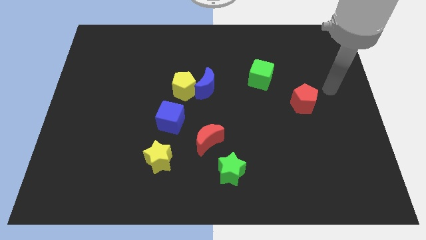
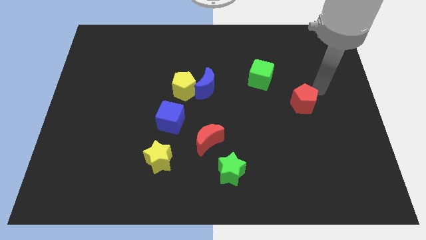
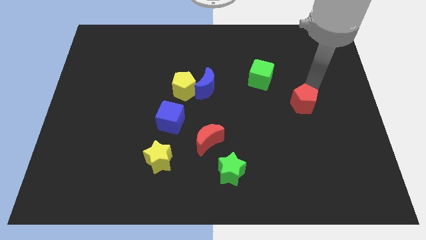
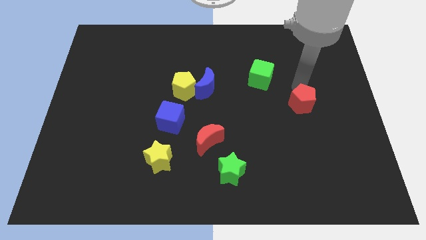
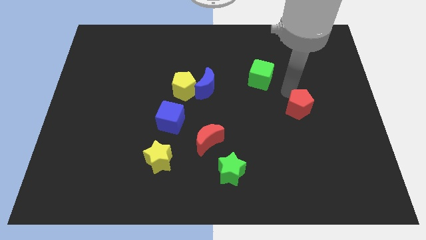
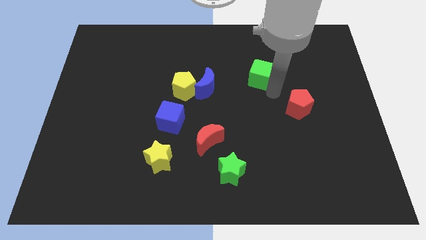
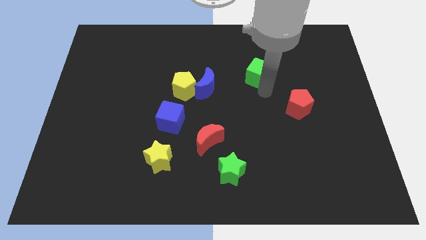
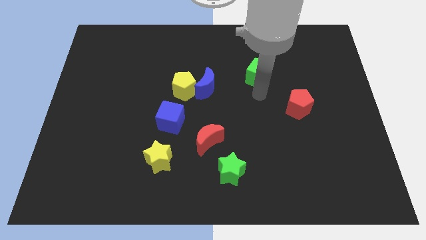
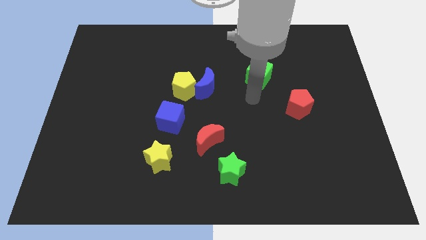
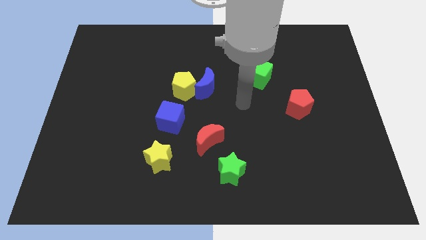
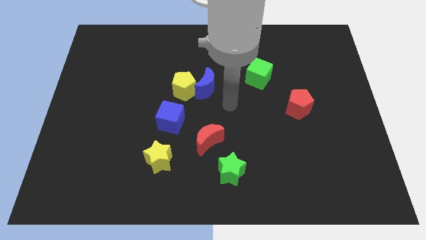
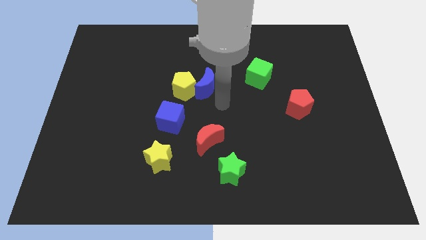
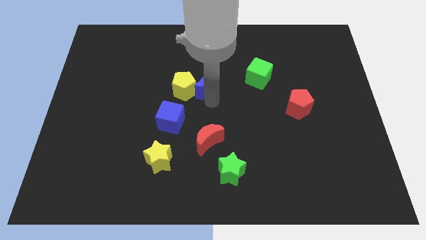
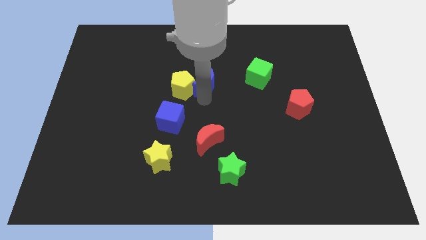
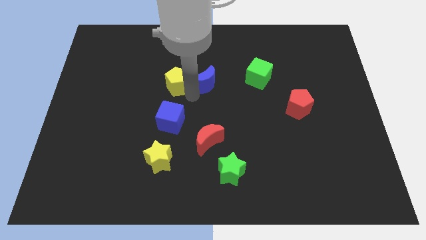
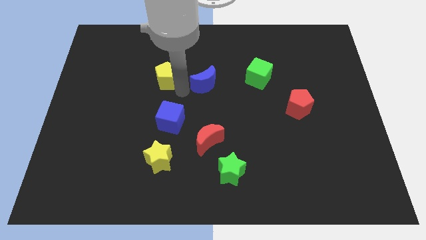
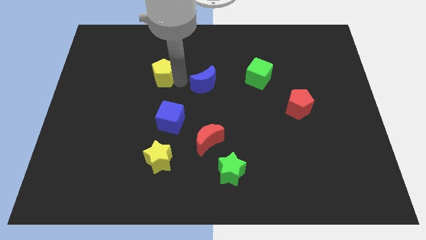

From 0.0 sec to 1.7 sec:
separate the blue moon from the yellow pentagon

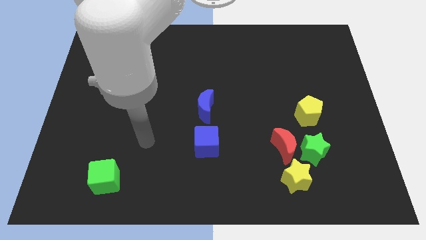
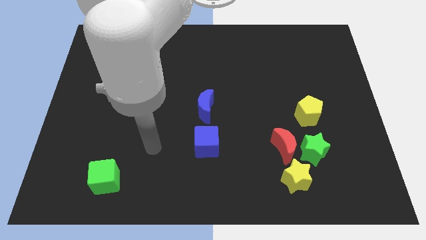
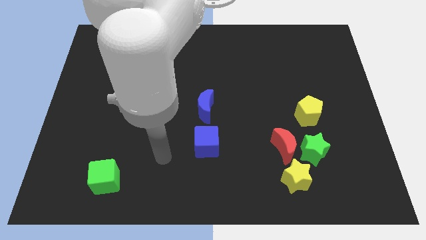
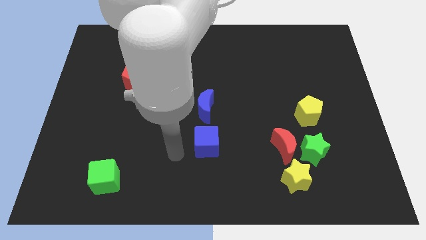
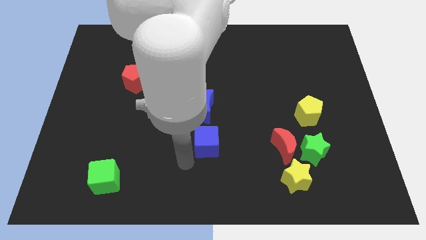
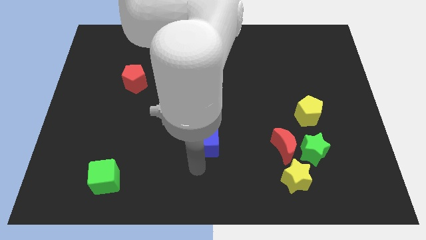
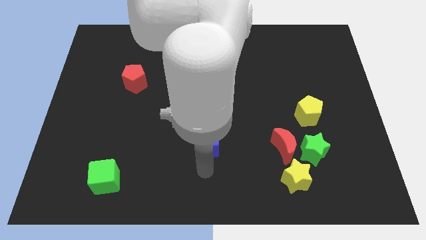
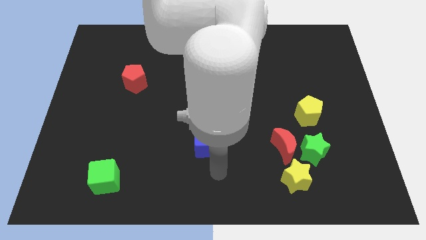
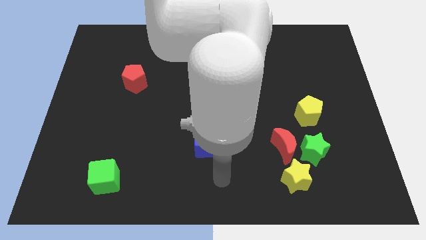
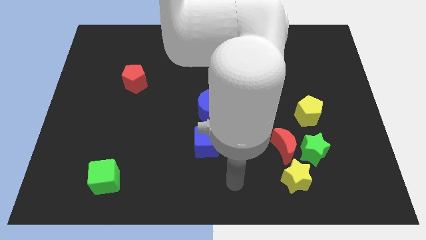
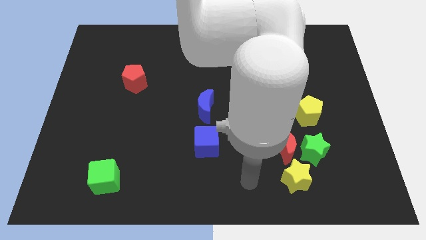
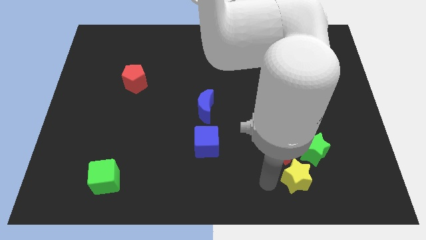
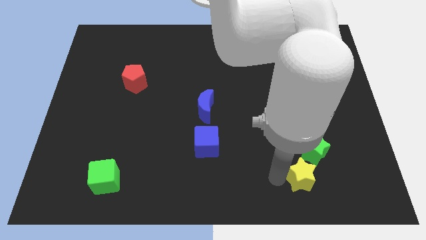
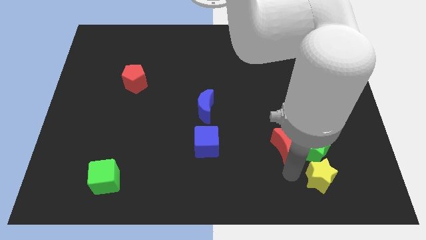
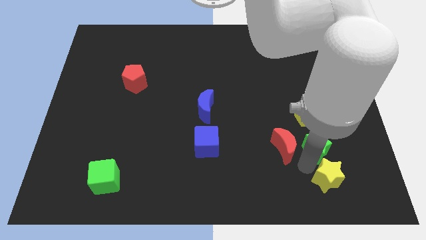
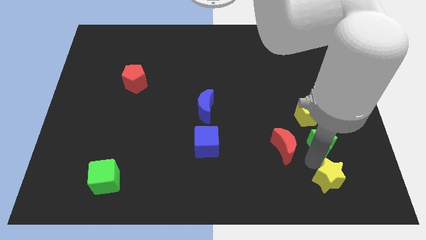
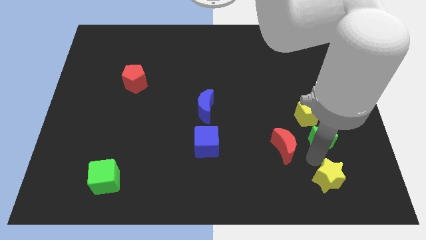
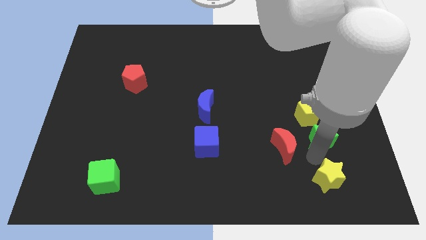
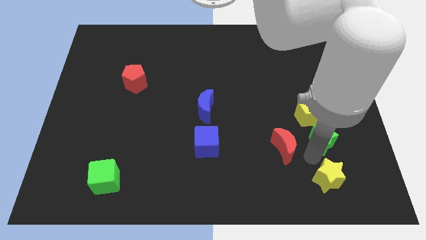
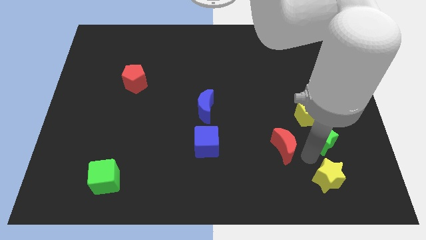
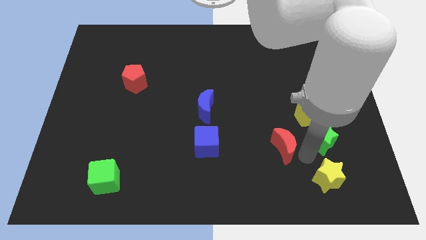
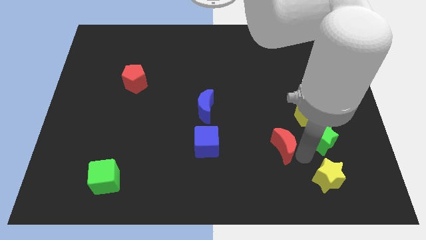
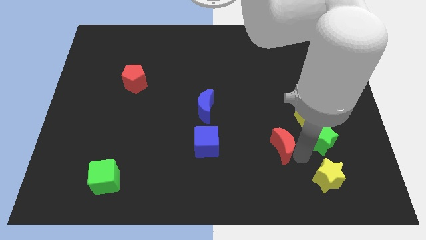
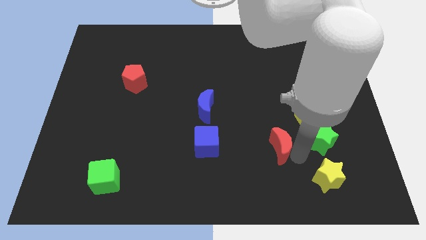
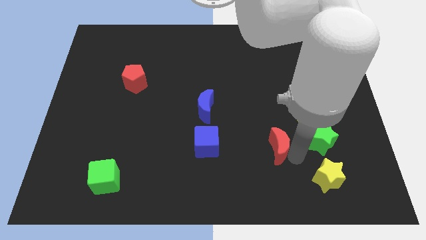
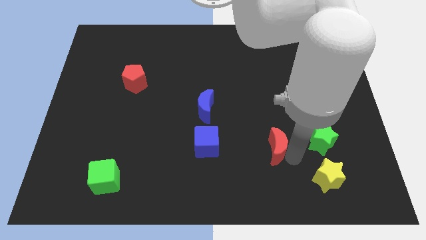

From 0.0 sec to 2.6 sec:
move the red moon away from the green star and yellow star

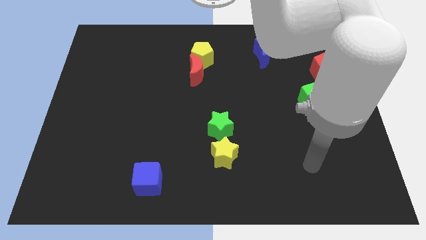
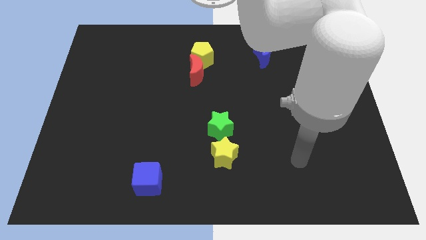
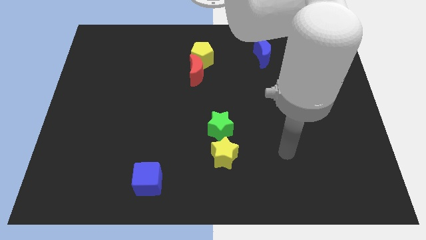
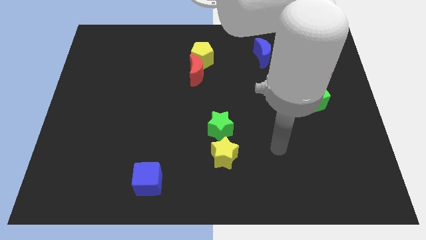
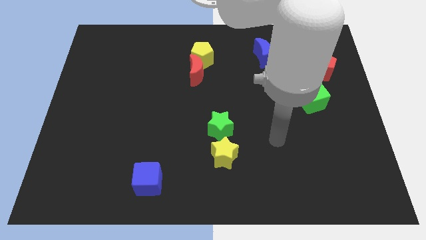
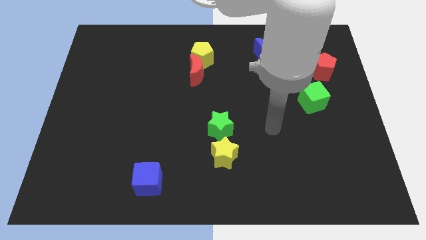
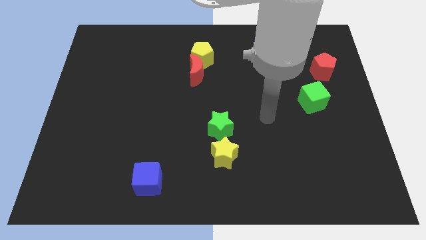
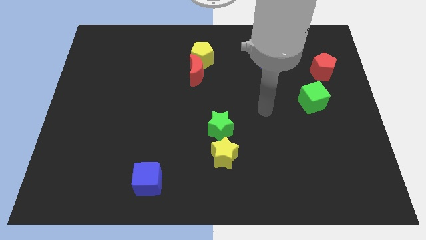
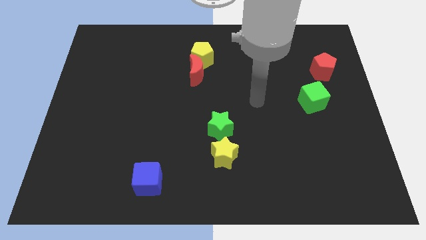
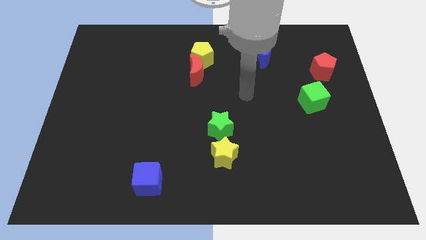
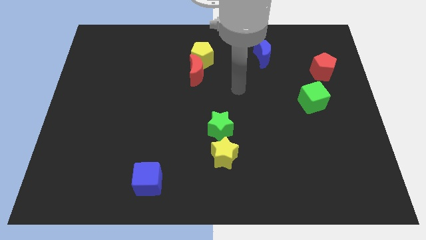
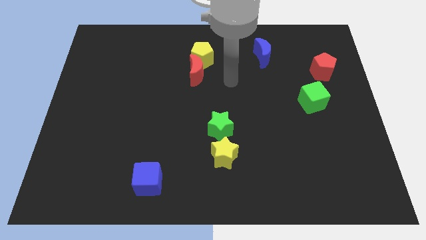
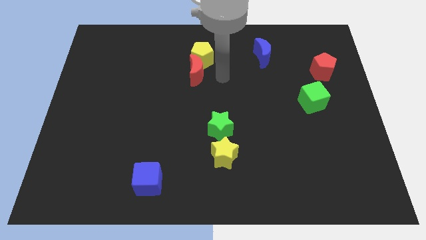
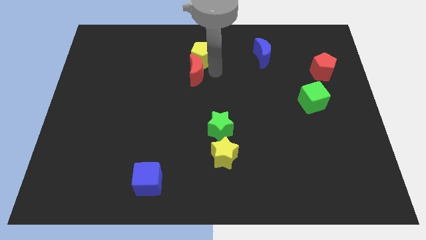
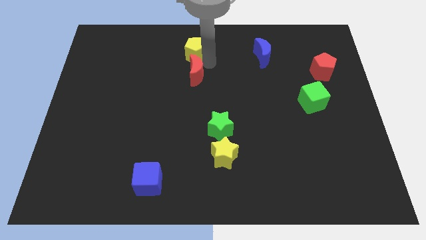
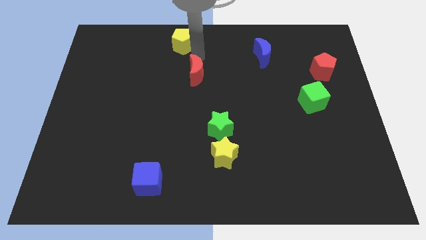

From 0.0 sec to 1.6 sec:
pull the red moon apart from the yellow pentagon

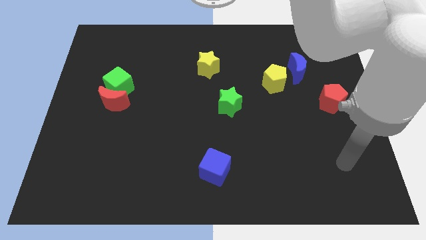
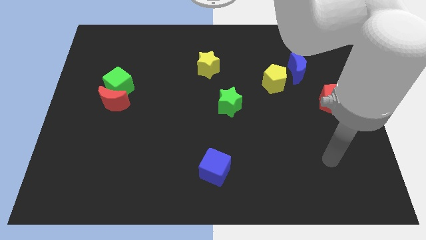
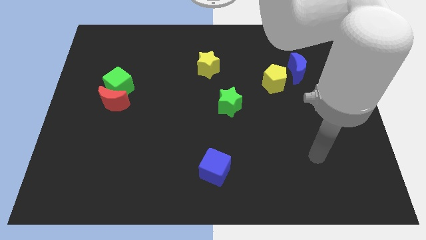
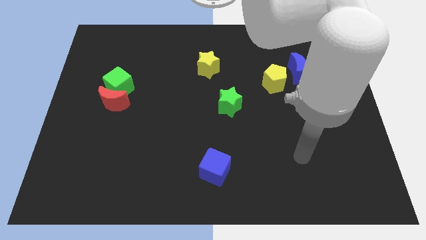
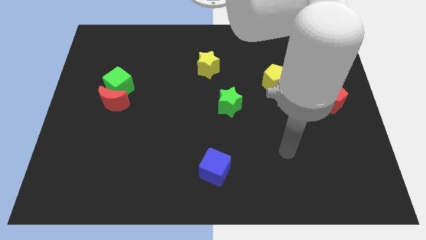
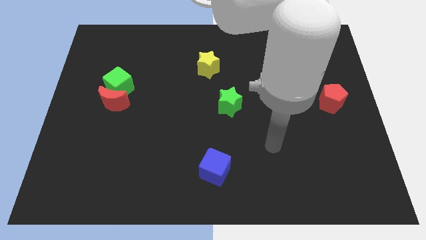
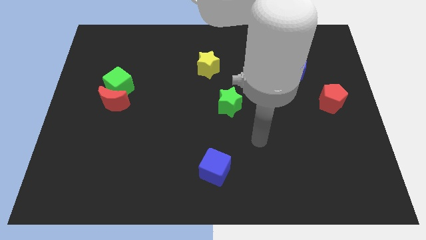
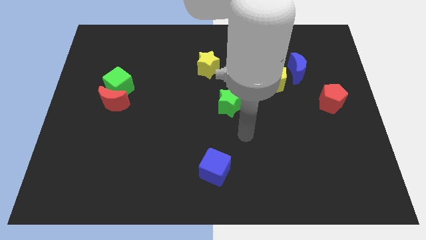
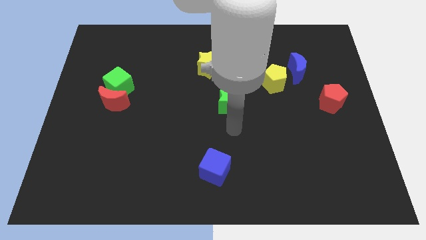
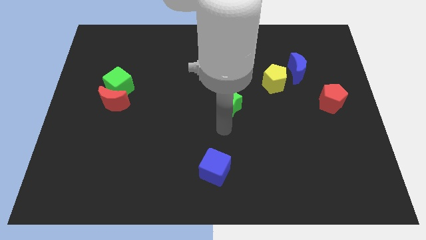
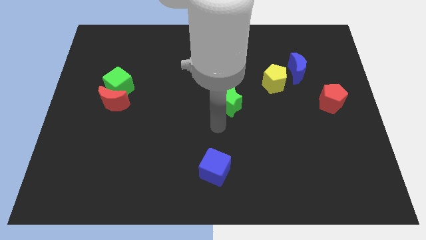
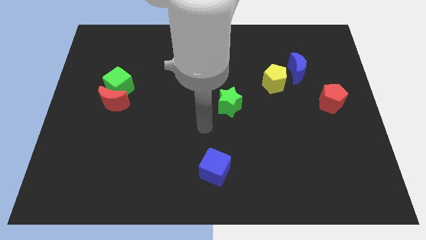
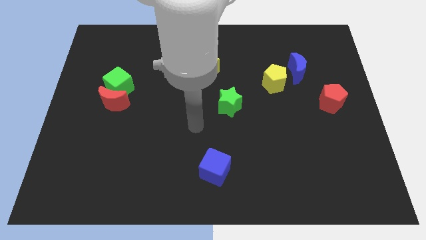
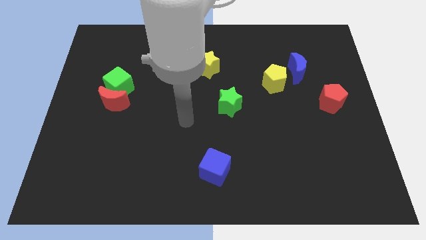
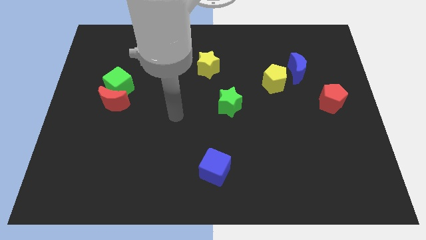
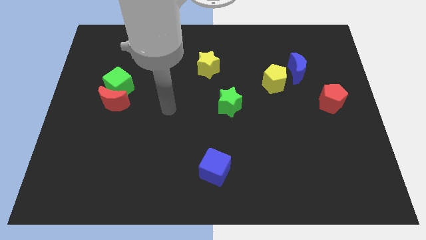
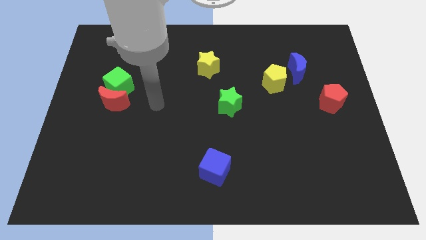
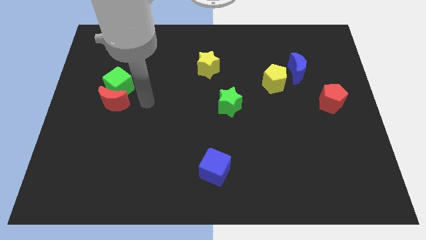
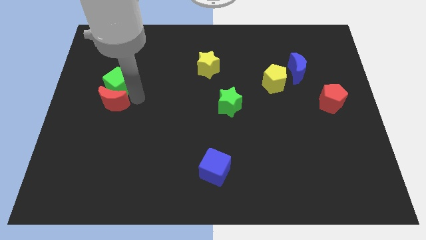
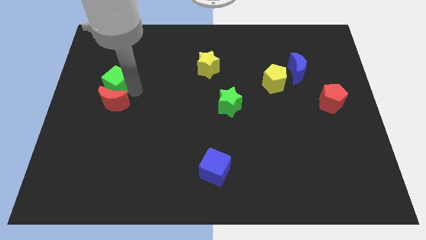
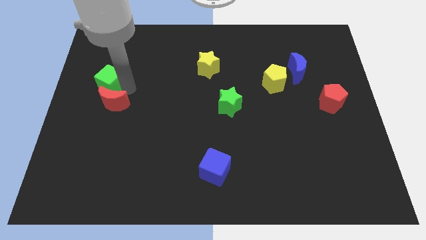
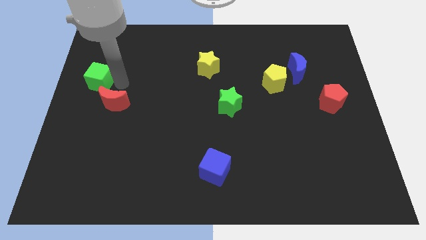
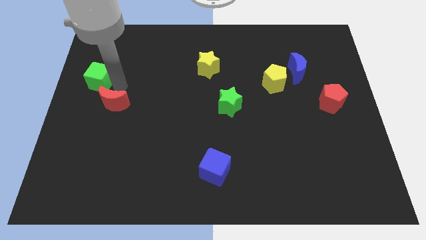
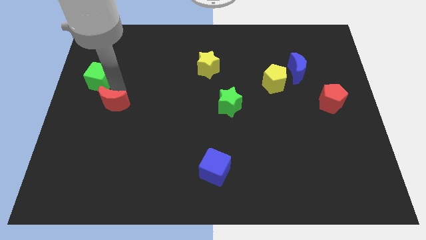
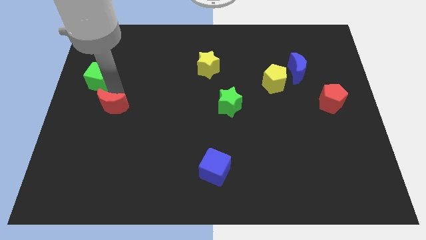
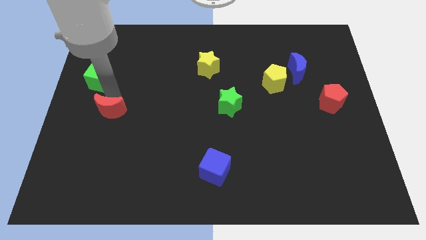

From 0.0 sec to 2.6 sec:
separate the red moon from the green cube

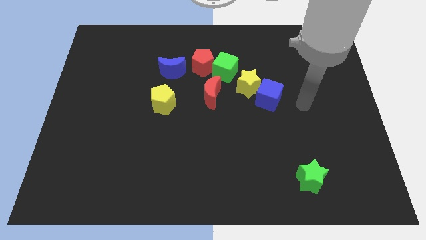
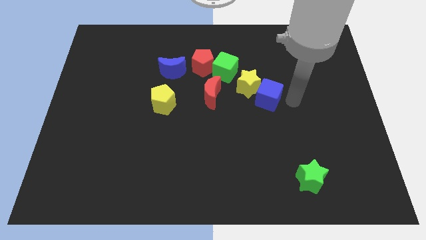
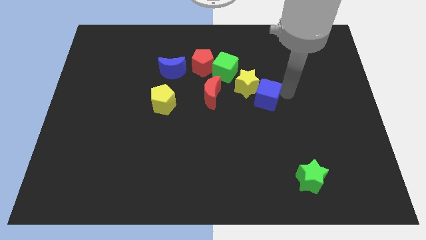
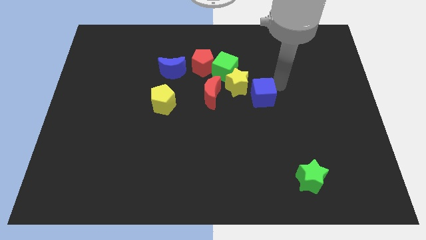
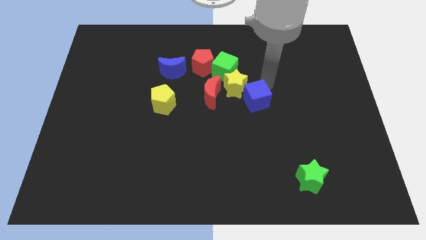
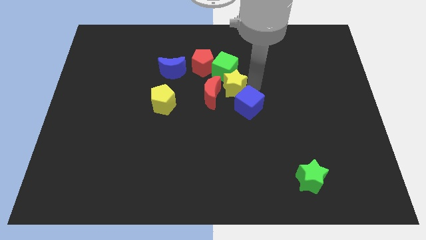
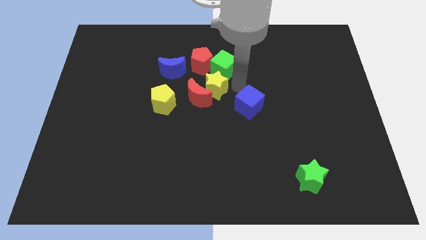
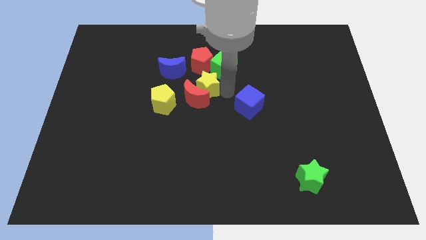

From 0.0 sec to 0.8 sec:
separate the blue cube from the yellow star
